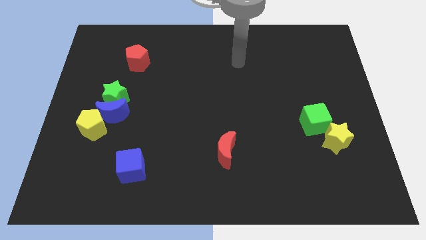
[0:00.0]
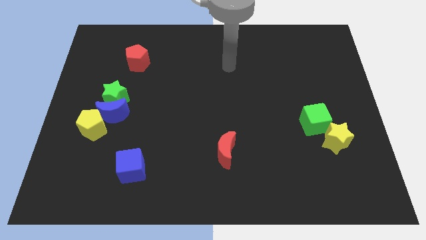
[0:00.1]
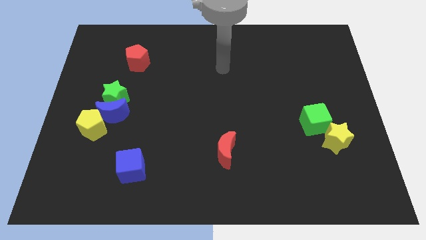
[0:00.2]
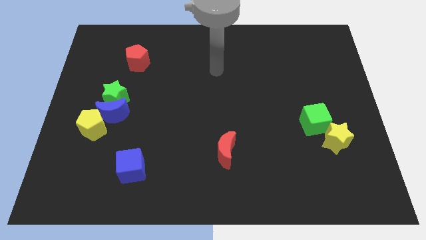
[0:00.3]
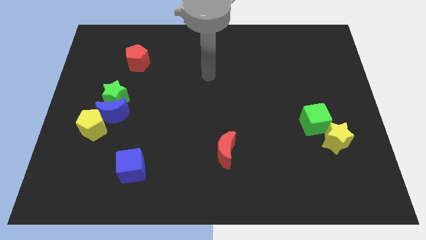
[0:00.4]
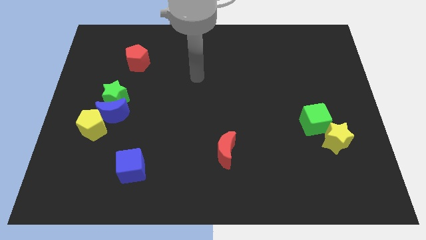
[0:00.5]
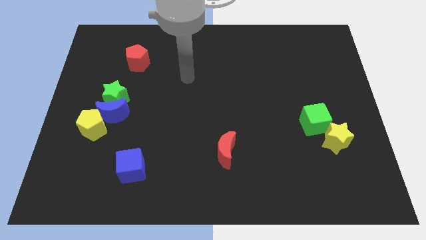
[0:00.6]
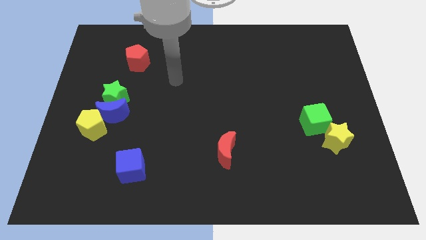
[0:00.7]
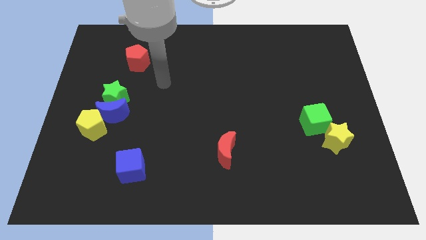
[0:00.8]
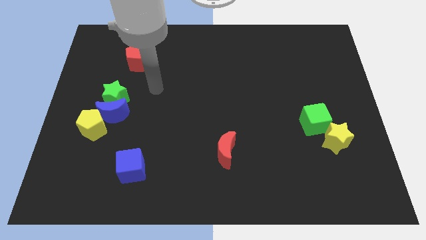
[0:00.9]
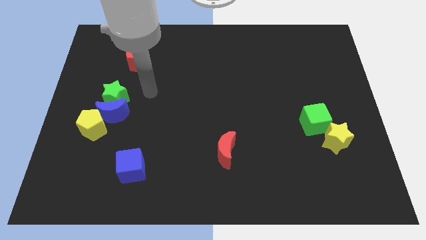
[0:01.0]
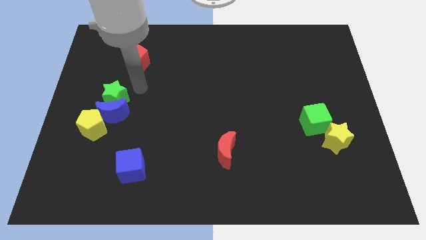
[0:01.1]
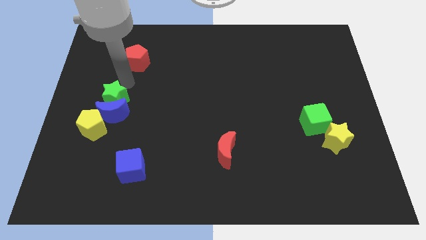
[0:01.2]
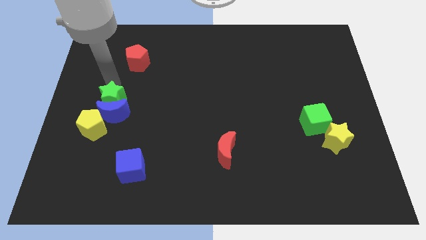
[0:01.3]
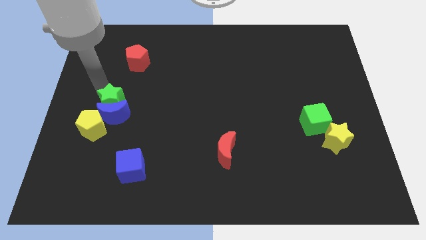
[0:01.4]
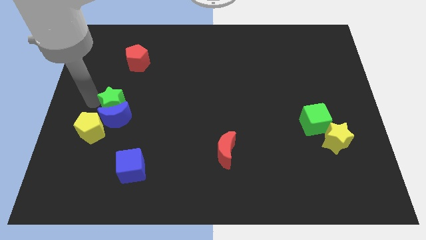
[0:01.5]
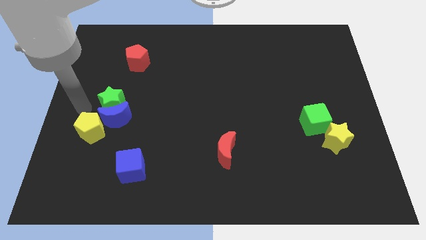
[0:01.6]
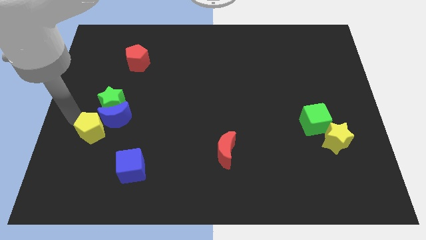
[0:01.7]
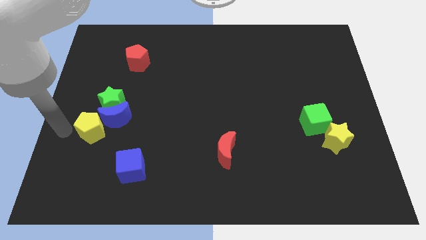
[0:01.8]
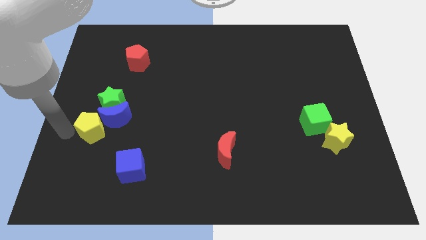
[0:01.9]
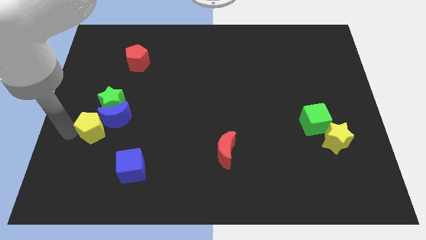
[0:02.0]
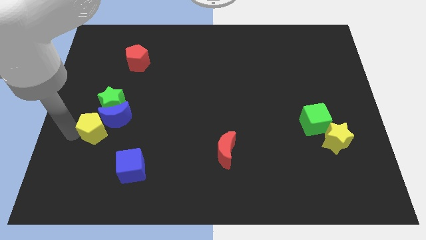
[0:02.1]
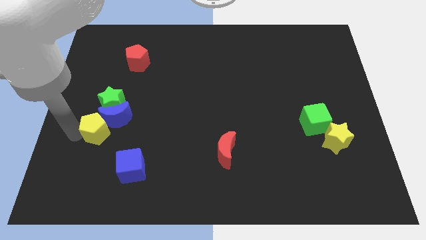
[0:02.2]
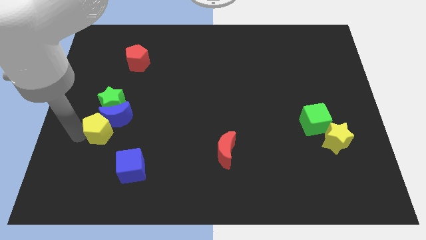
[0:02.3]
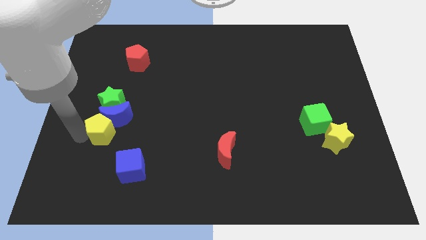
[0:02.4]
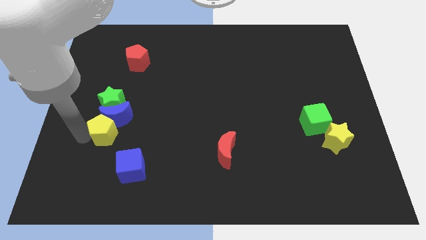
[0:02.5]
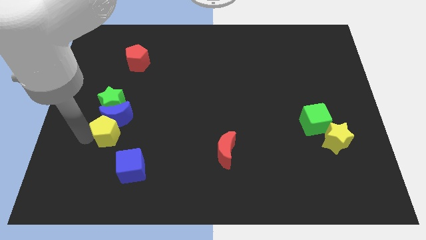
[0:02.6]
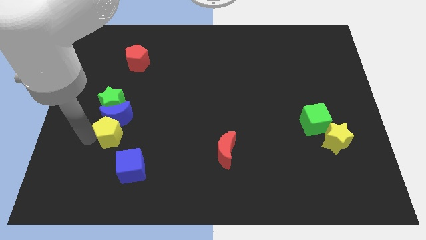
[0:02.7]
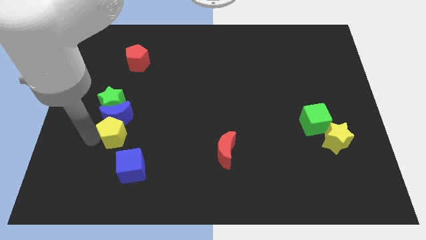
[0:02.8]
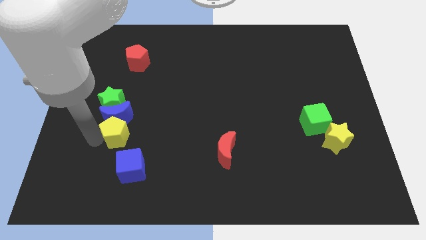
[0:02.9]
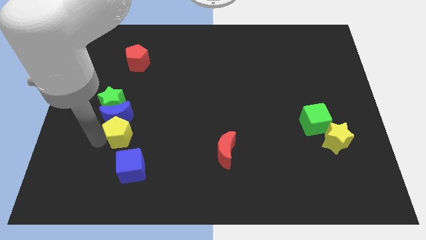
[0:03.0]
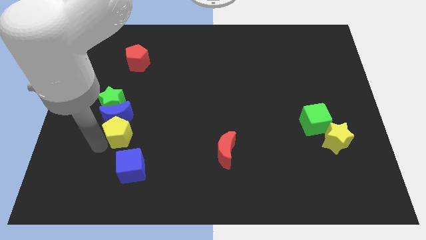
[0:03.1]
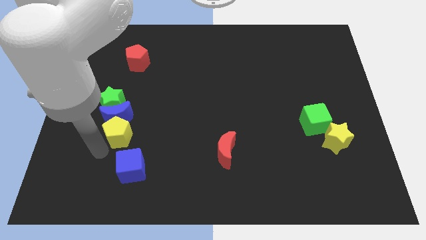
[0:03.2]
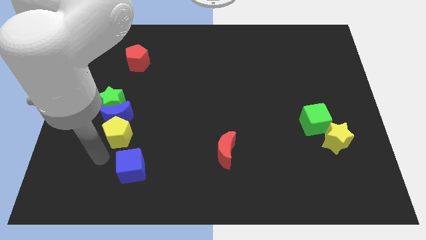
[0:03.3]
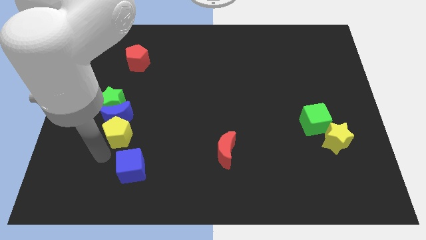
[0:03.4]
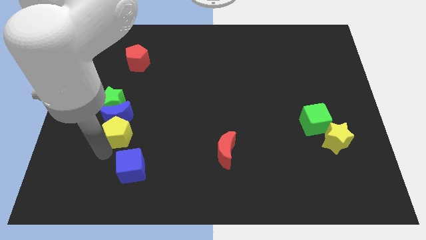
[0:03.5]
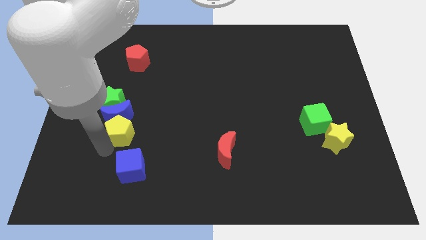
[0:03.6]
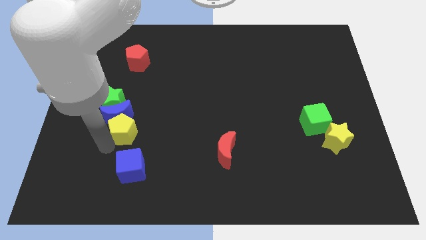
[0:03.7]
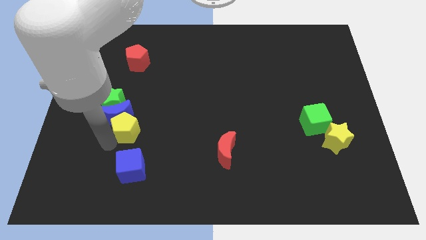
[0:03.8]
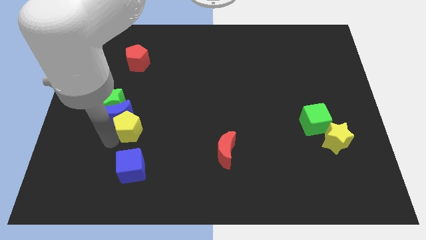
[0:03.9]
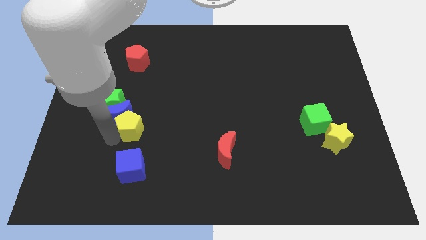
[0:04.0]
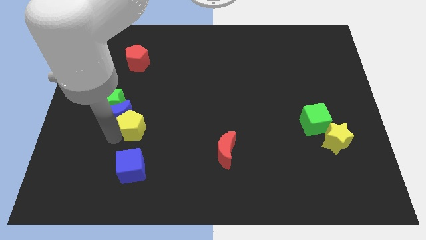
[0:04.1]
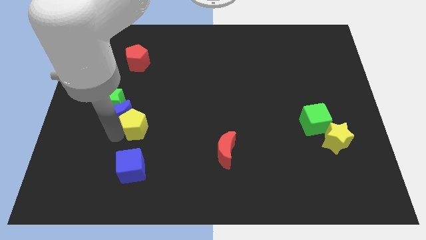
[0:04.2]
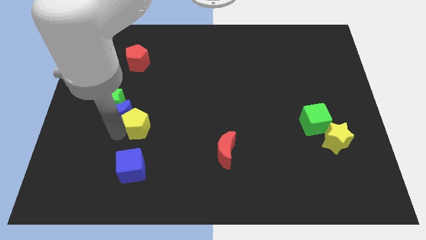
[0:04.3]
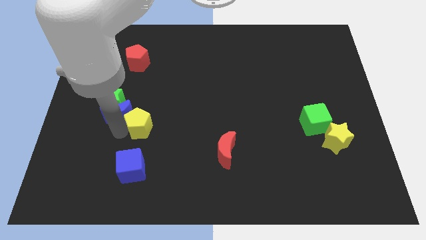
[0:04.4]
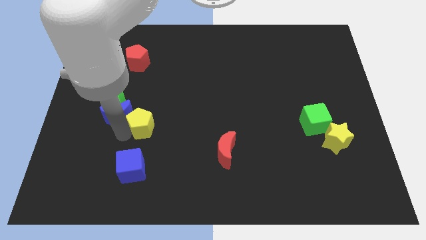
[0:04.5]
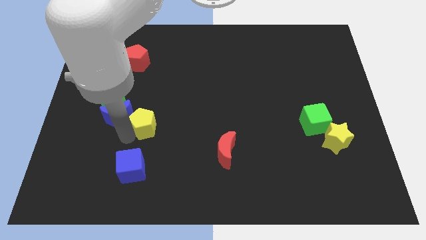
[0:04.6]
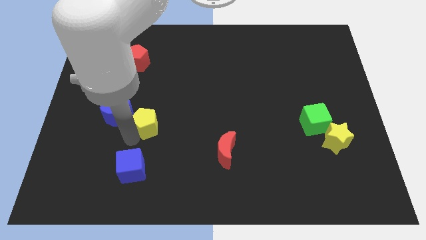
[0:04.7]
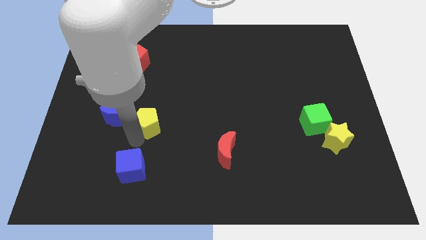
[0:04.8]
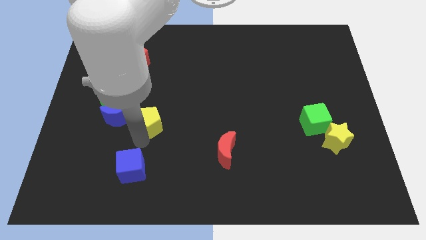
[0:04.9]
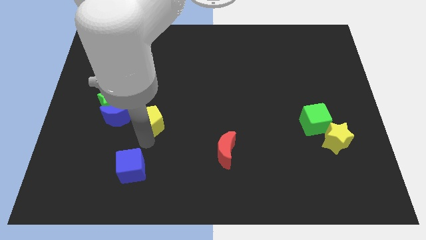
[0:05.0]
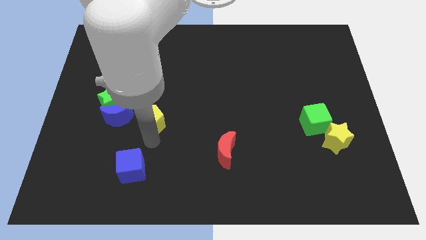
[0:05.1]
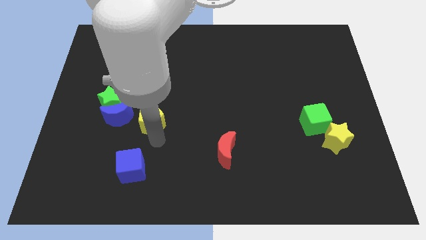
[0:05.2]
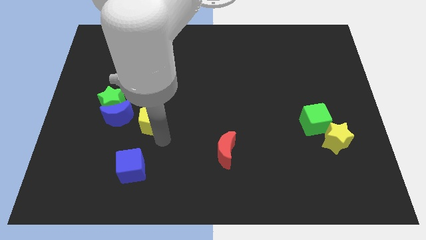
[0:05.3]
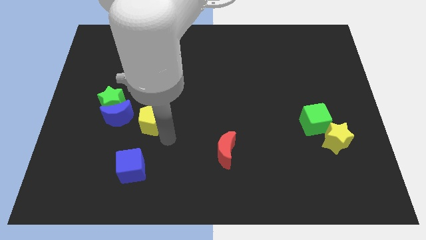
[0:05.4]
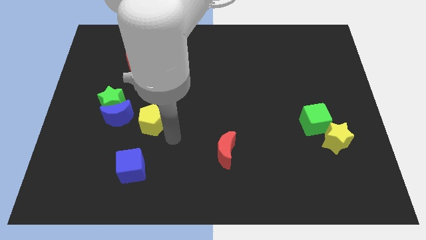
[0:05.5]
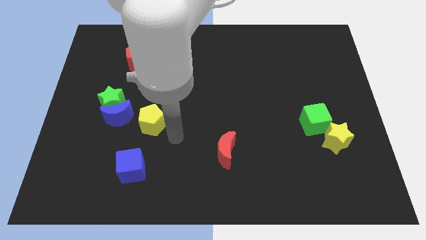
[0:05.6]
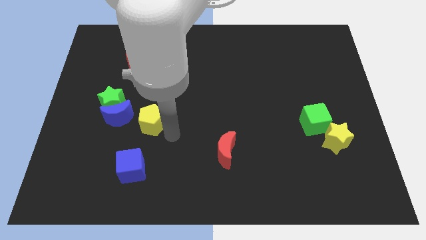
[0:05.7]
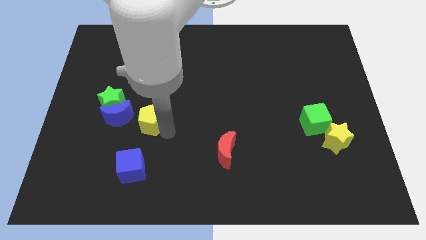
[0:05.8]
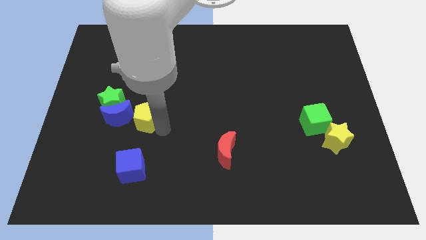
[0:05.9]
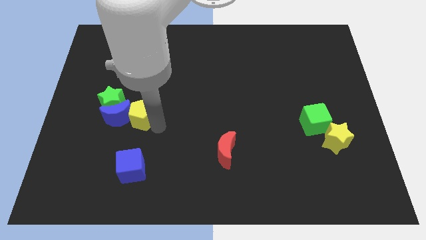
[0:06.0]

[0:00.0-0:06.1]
move the yellow pentagon to the top right side of the blue moon

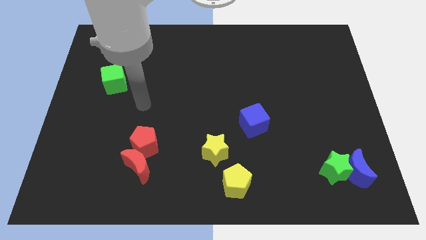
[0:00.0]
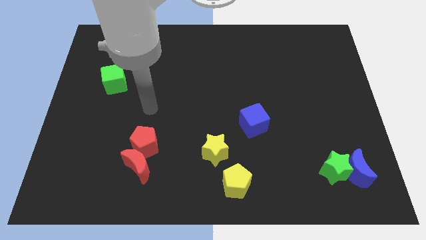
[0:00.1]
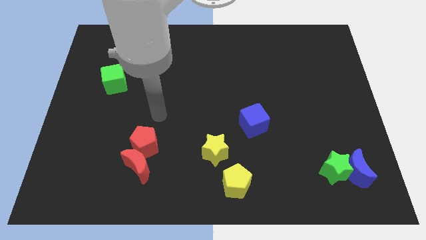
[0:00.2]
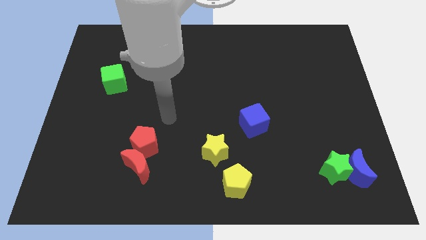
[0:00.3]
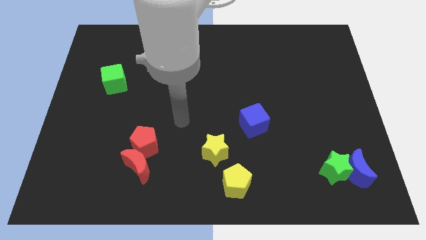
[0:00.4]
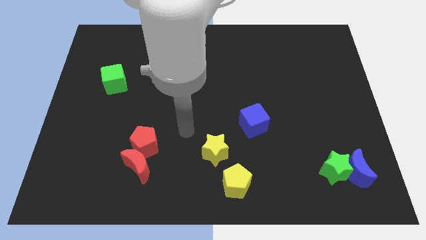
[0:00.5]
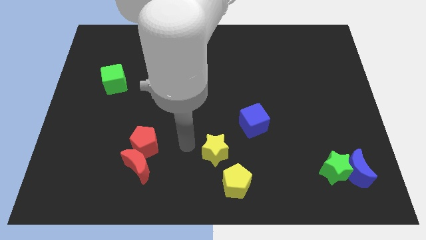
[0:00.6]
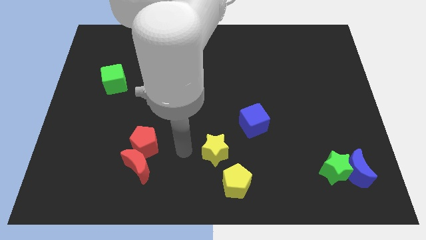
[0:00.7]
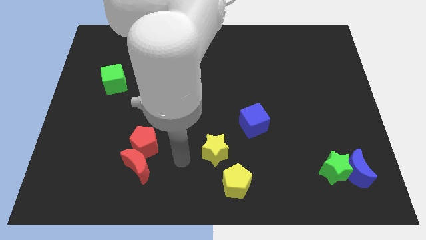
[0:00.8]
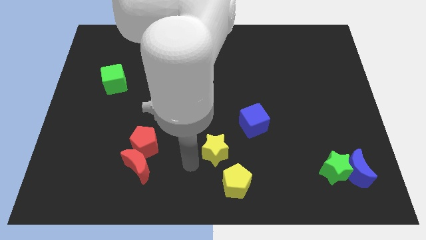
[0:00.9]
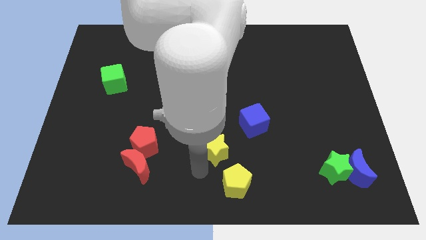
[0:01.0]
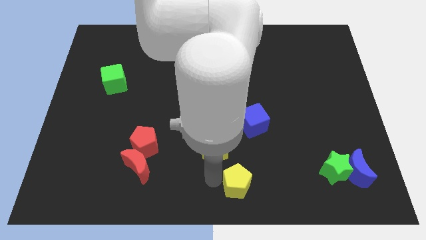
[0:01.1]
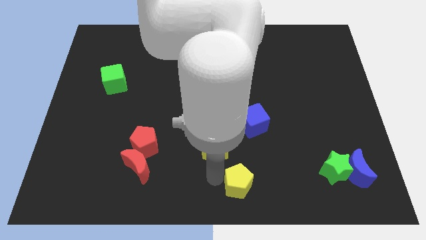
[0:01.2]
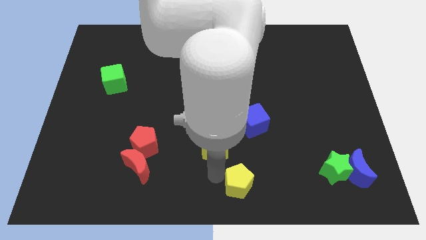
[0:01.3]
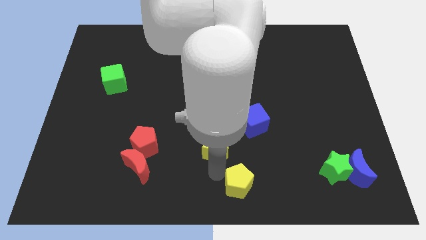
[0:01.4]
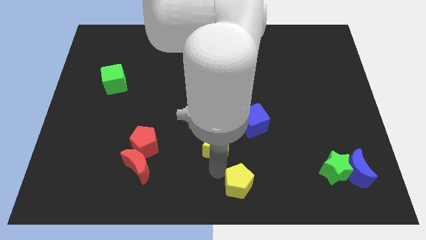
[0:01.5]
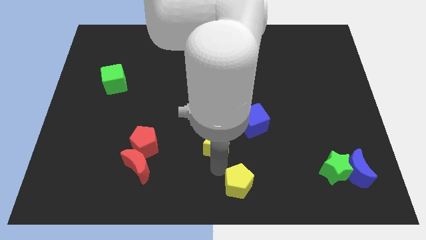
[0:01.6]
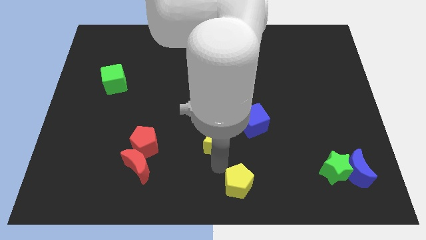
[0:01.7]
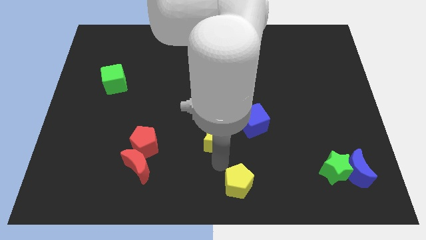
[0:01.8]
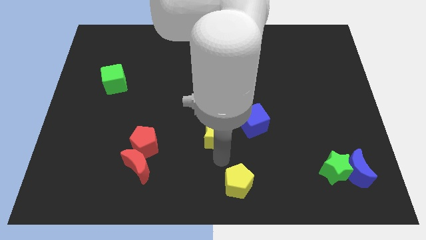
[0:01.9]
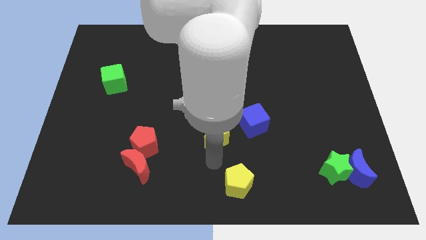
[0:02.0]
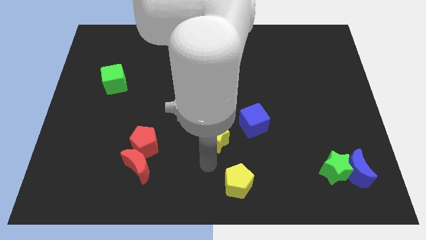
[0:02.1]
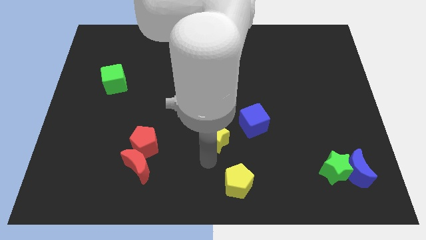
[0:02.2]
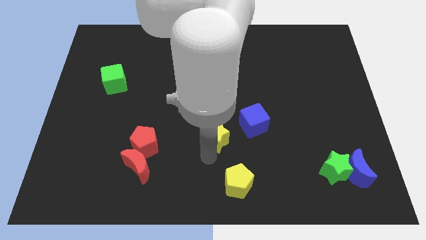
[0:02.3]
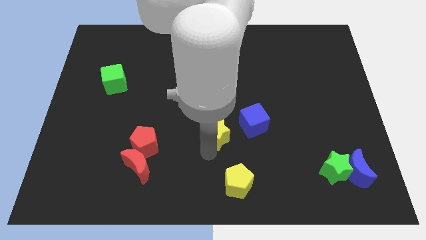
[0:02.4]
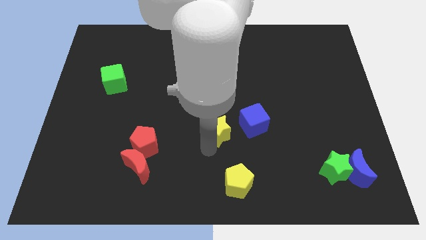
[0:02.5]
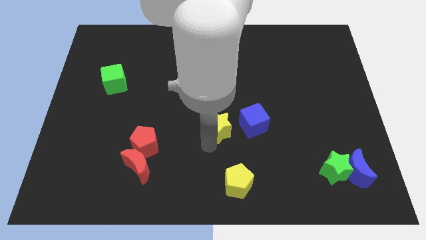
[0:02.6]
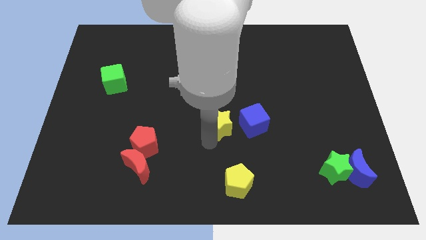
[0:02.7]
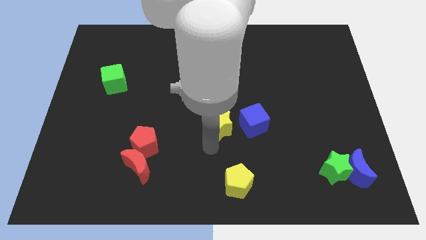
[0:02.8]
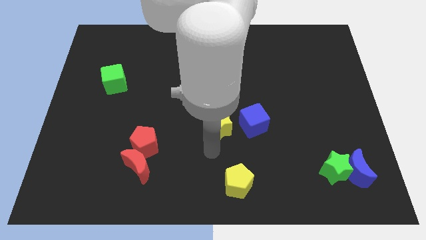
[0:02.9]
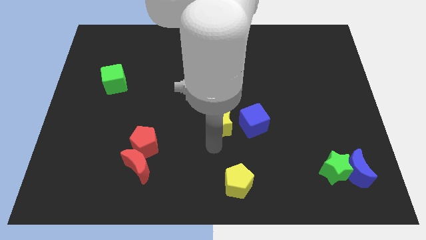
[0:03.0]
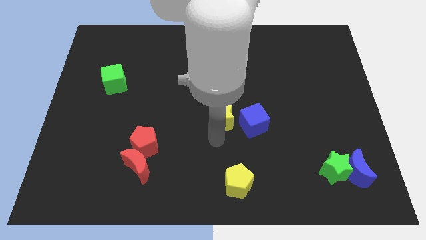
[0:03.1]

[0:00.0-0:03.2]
put the yellow star diagonally up and to the left of the blue cube
